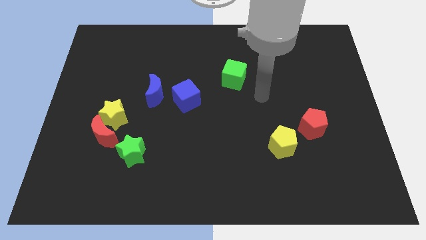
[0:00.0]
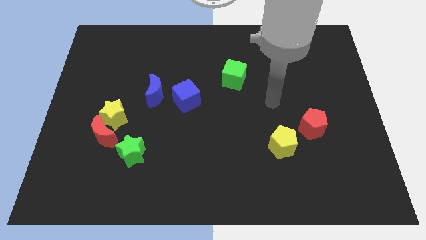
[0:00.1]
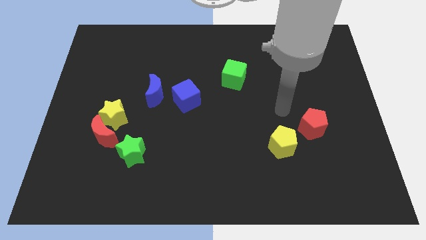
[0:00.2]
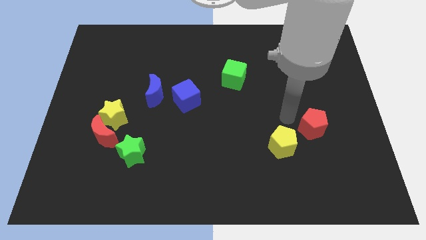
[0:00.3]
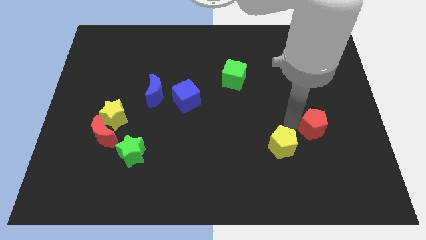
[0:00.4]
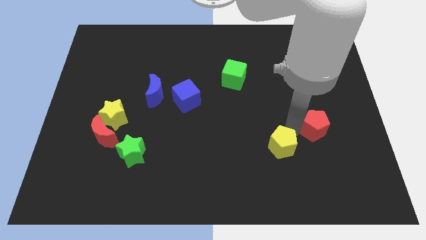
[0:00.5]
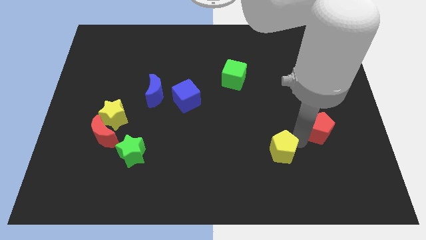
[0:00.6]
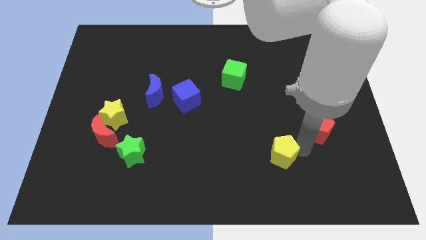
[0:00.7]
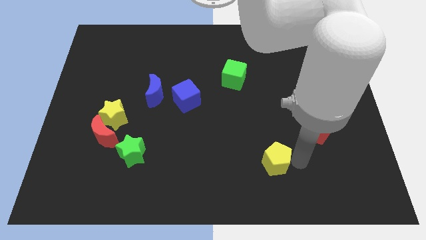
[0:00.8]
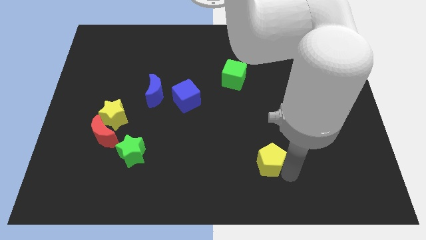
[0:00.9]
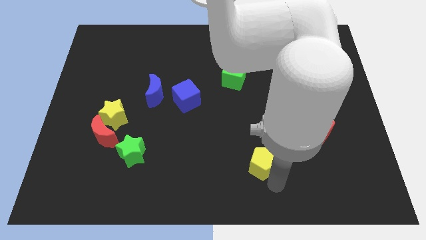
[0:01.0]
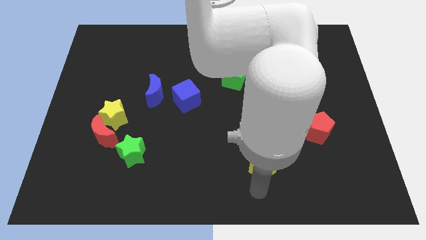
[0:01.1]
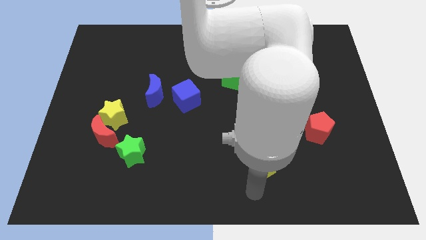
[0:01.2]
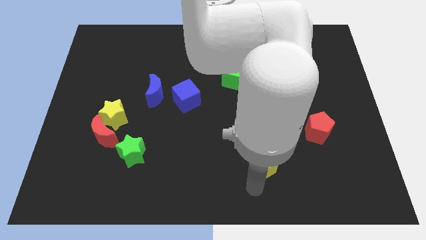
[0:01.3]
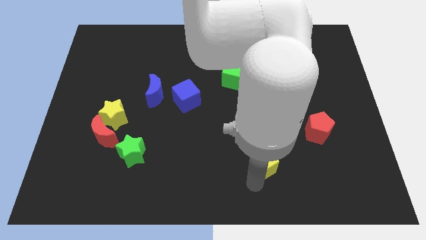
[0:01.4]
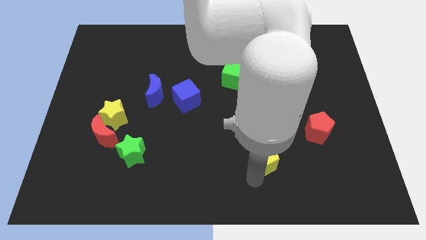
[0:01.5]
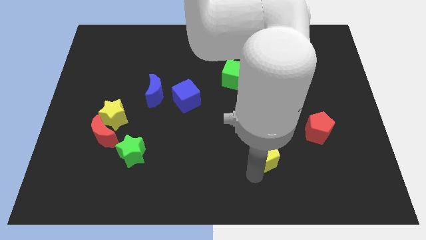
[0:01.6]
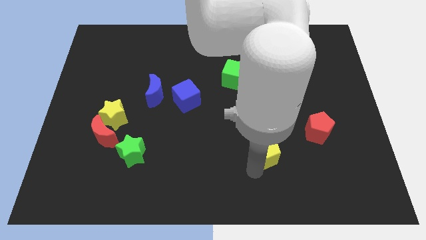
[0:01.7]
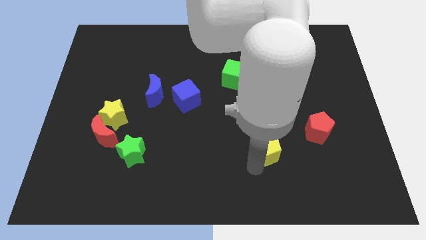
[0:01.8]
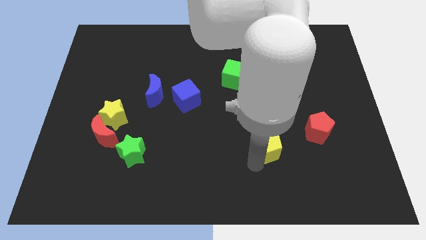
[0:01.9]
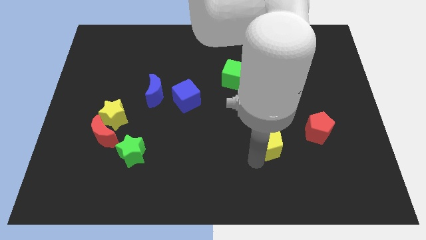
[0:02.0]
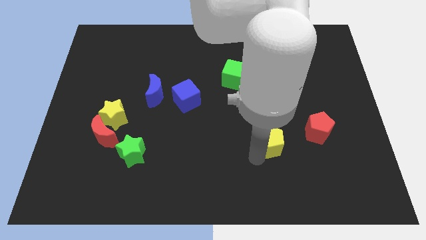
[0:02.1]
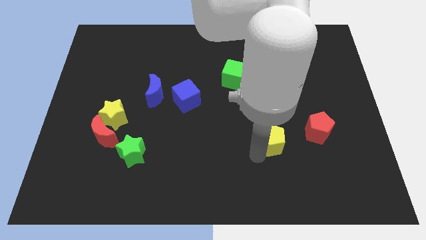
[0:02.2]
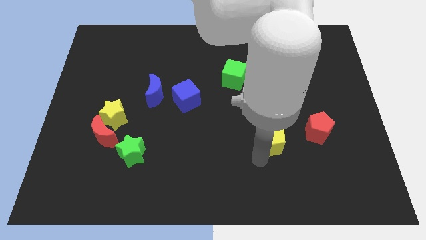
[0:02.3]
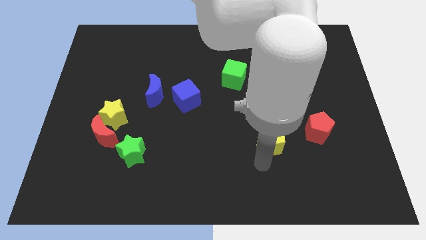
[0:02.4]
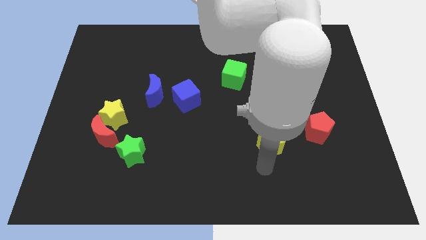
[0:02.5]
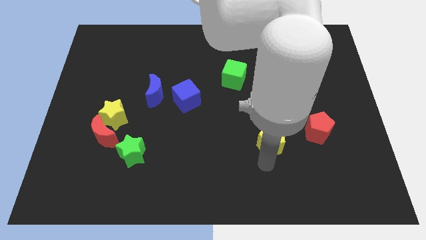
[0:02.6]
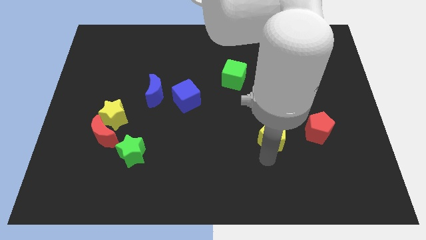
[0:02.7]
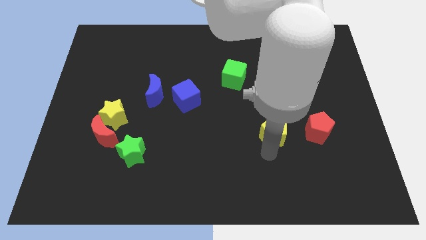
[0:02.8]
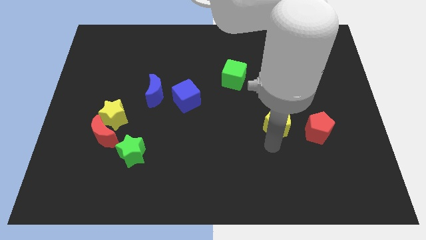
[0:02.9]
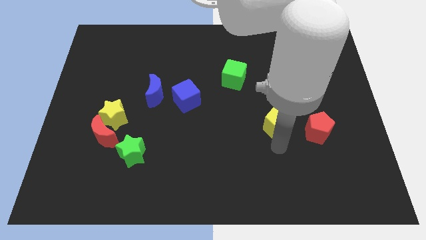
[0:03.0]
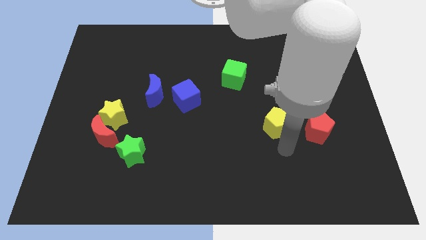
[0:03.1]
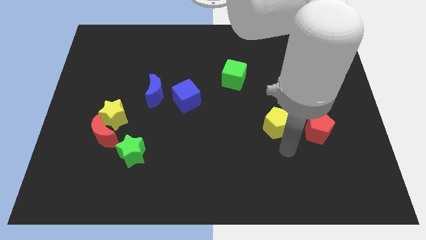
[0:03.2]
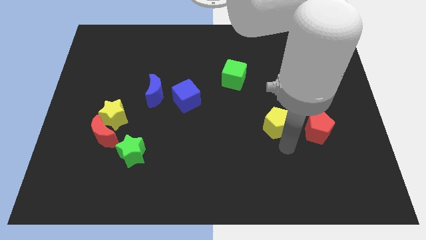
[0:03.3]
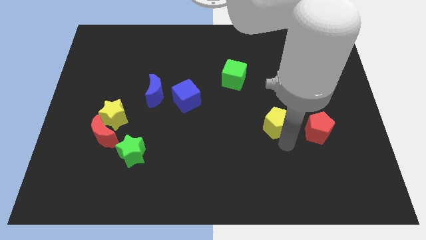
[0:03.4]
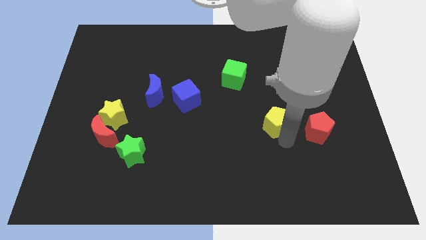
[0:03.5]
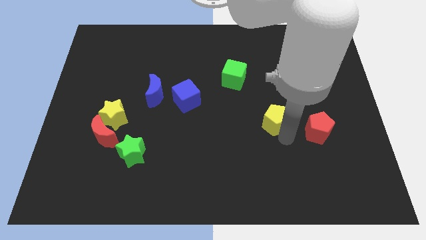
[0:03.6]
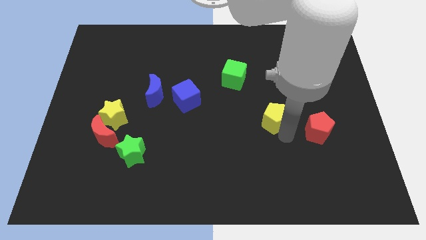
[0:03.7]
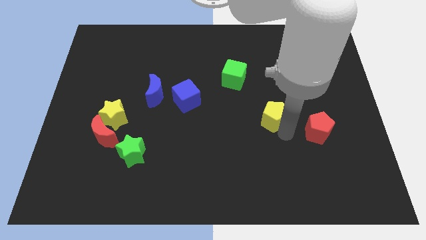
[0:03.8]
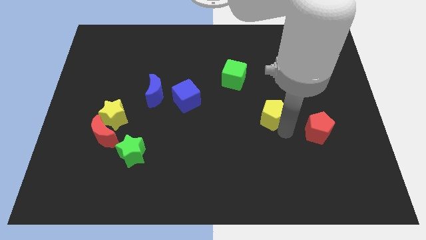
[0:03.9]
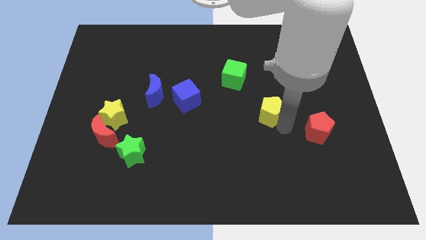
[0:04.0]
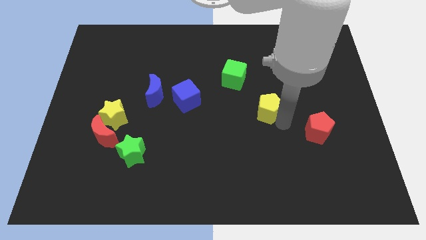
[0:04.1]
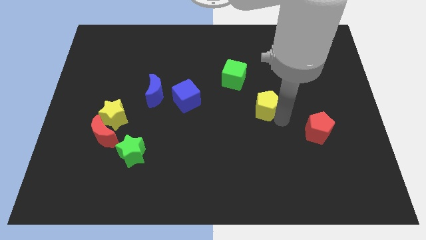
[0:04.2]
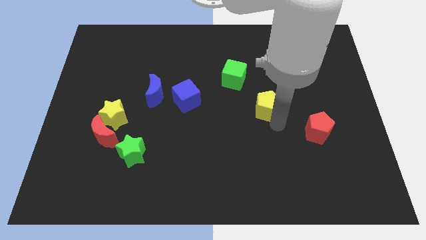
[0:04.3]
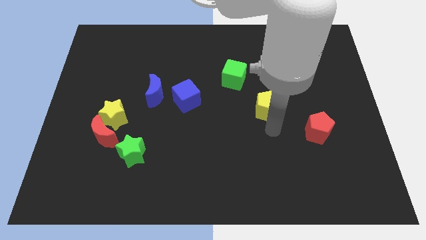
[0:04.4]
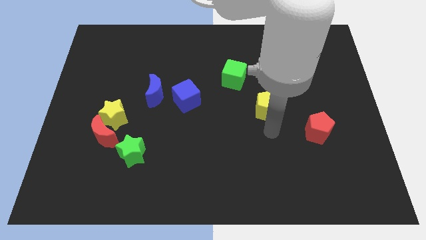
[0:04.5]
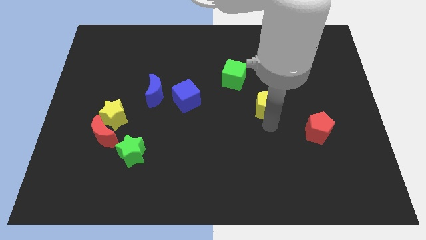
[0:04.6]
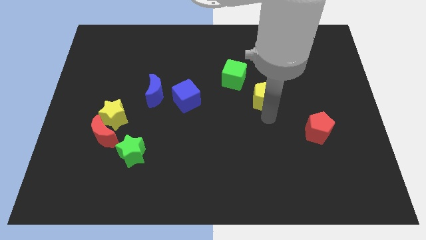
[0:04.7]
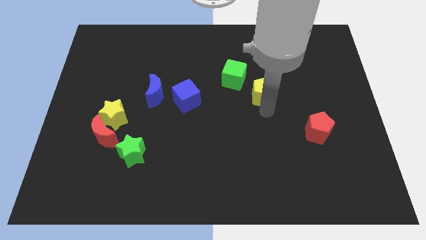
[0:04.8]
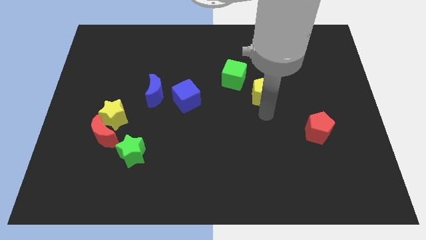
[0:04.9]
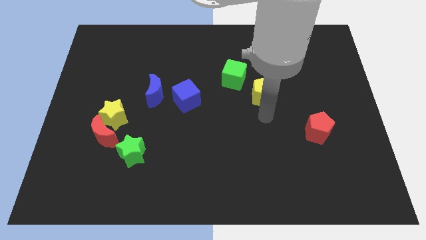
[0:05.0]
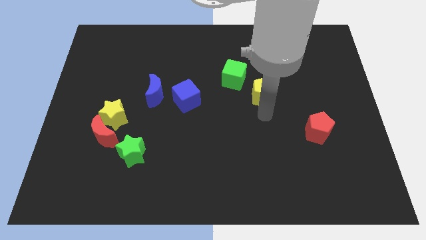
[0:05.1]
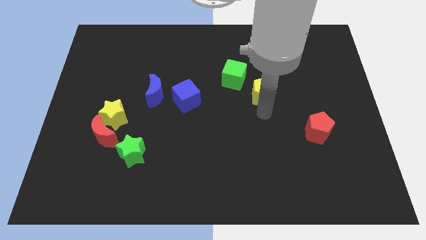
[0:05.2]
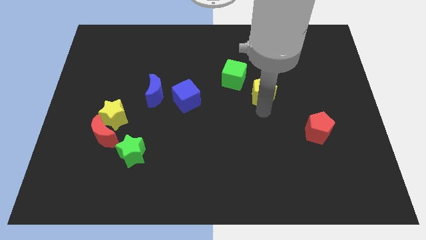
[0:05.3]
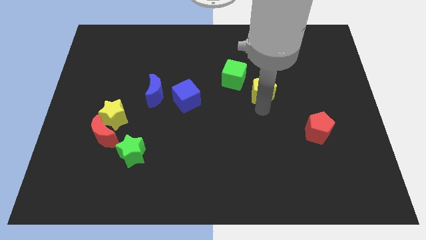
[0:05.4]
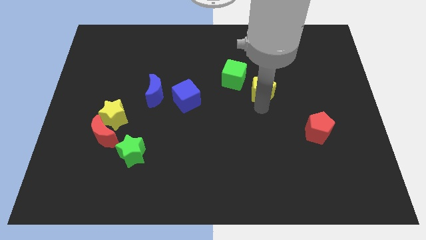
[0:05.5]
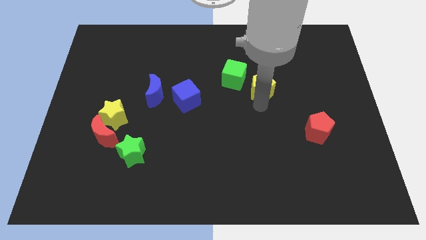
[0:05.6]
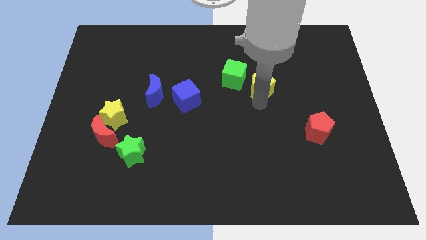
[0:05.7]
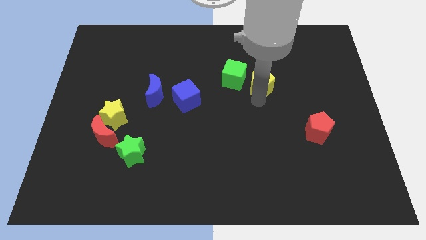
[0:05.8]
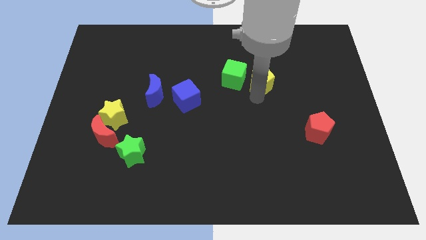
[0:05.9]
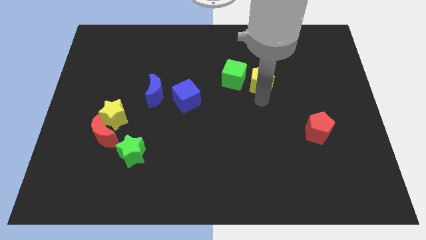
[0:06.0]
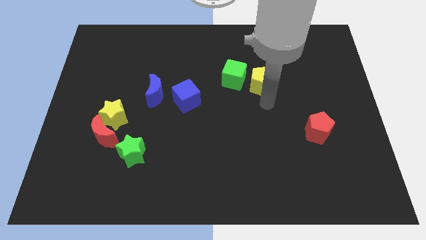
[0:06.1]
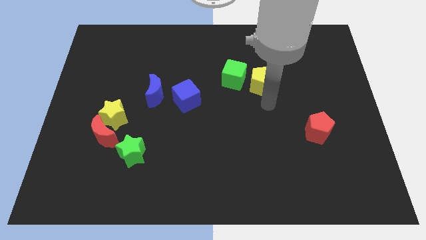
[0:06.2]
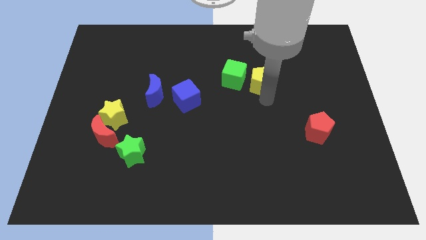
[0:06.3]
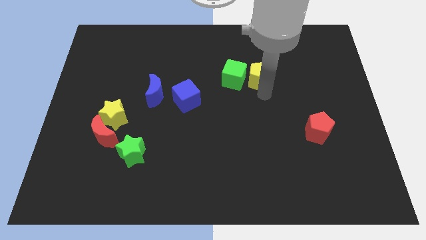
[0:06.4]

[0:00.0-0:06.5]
put the yellow pentagon diagonally up and to the right of the green cube

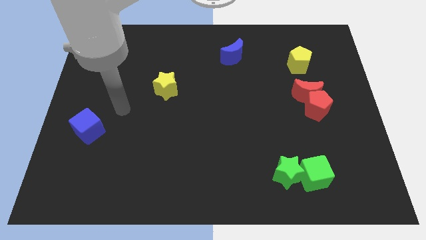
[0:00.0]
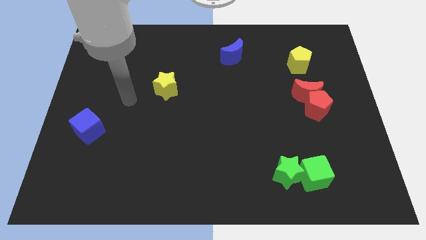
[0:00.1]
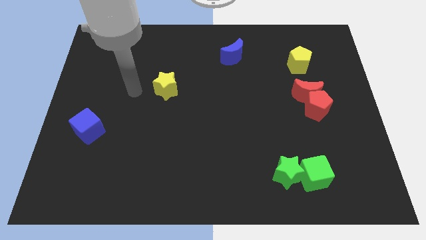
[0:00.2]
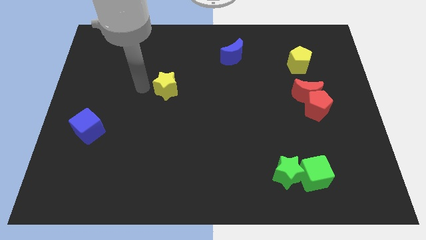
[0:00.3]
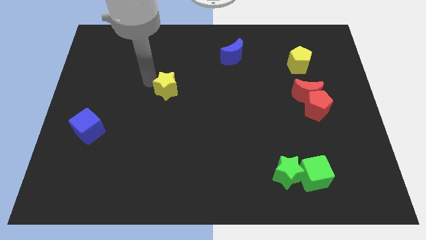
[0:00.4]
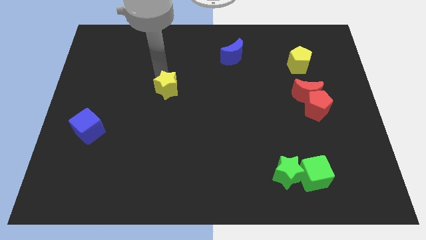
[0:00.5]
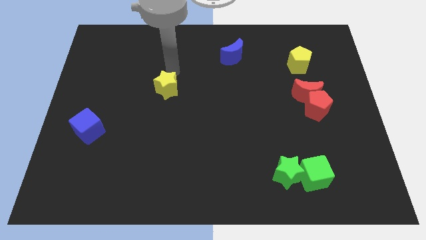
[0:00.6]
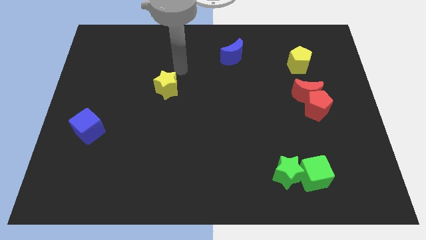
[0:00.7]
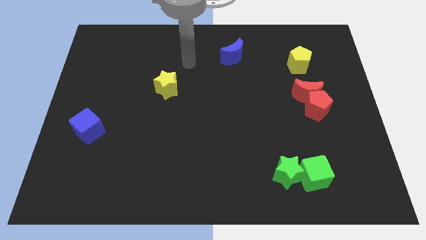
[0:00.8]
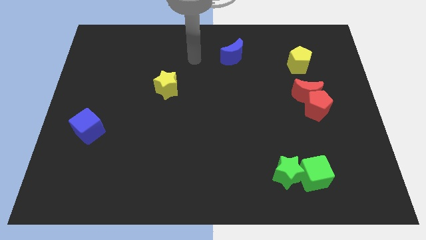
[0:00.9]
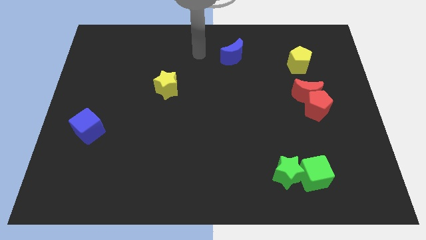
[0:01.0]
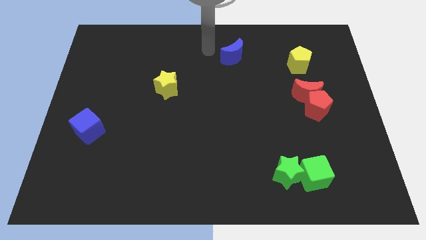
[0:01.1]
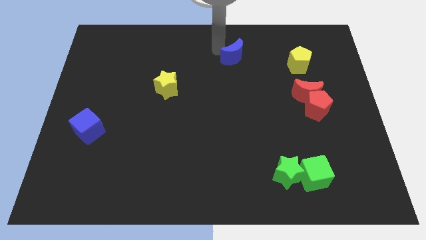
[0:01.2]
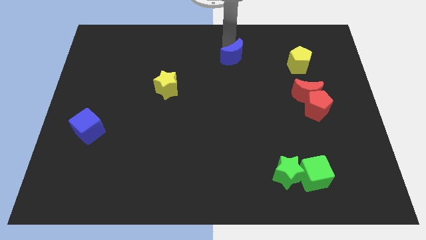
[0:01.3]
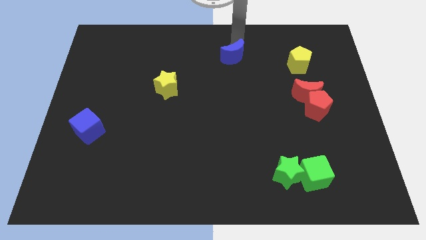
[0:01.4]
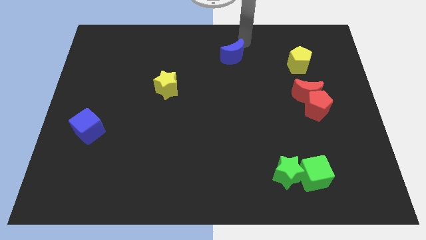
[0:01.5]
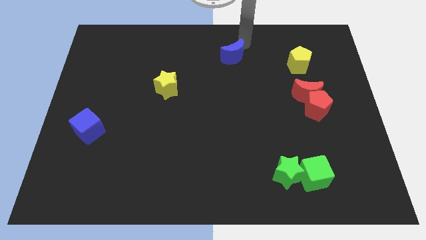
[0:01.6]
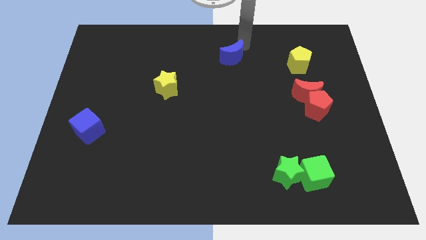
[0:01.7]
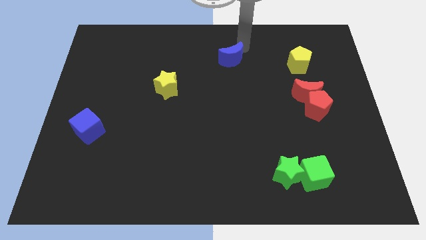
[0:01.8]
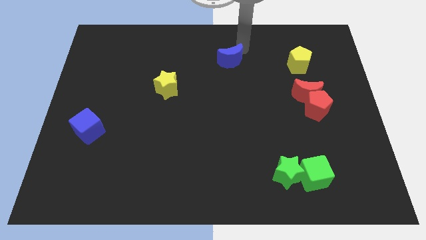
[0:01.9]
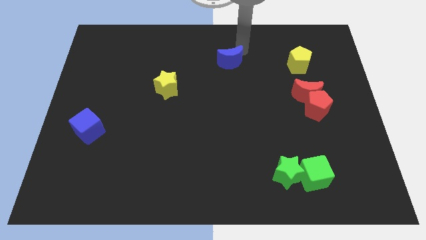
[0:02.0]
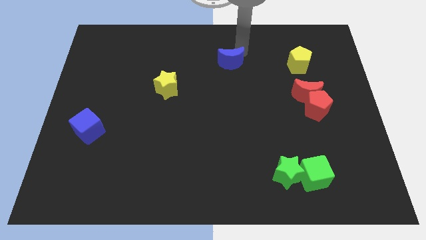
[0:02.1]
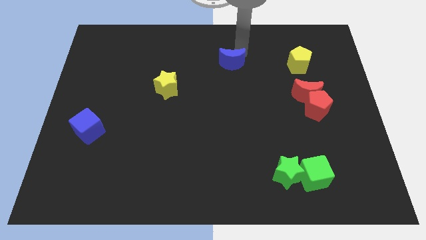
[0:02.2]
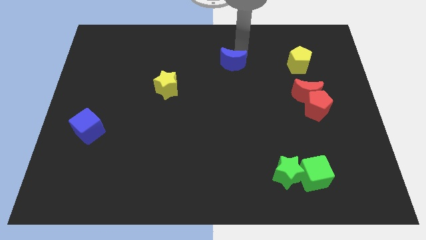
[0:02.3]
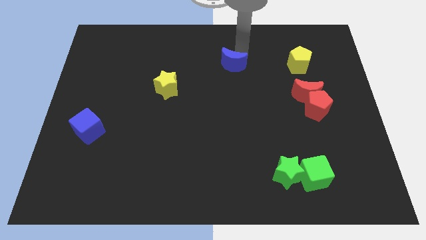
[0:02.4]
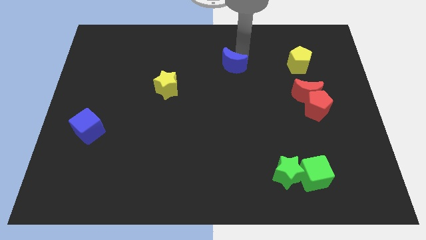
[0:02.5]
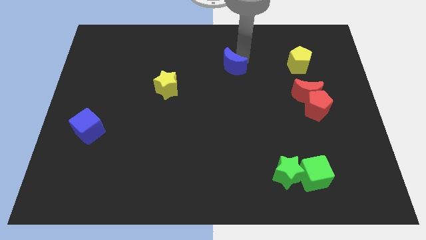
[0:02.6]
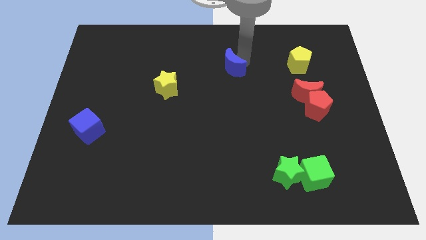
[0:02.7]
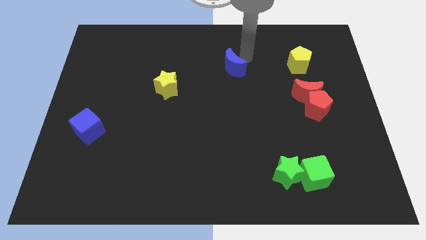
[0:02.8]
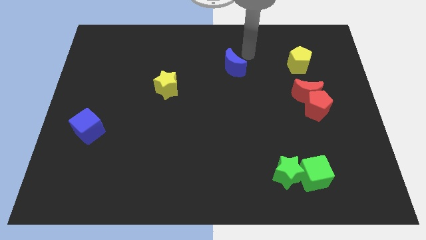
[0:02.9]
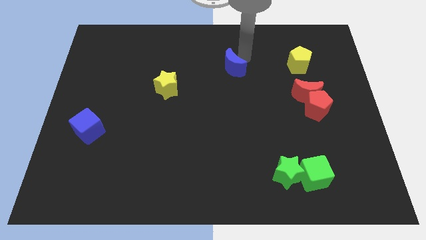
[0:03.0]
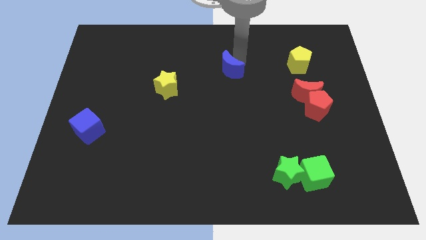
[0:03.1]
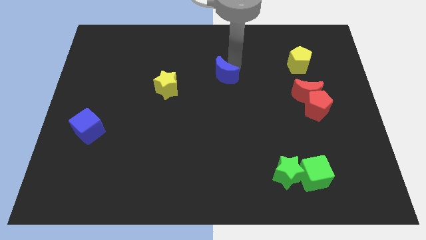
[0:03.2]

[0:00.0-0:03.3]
push the blue moon right of the yellow star
